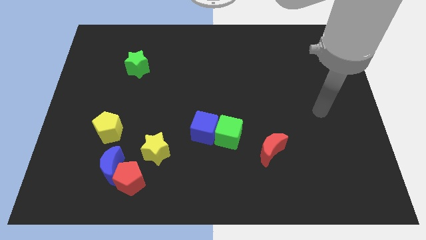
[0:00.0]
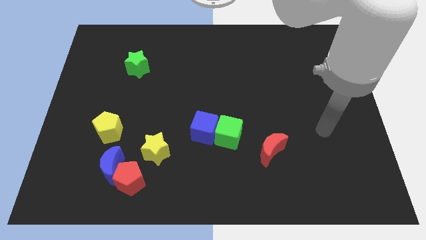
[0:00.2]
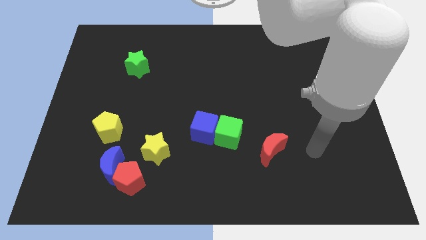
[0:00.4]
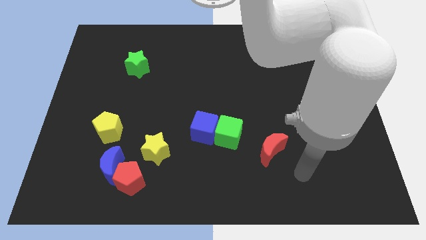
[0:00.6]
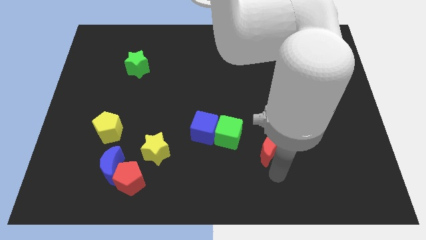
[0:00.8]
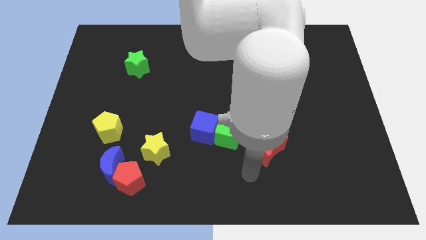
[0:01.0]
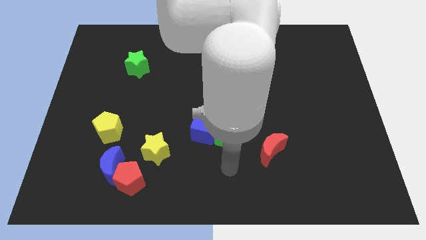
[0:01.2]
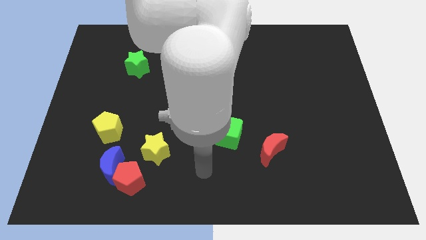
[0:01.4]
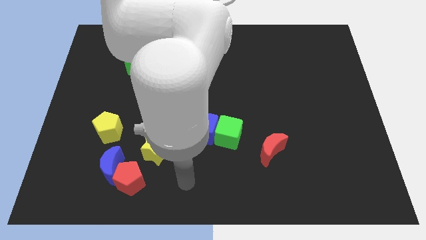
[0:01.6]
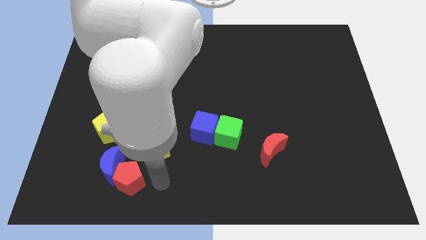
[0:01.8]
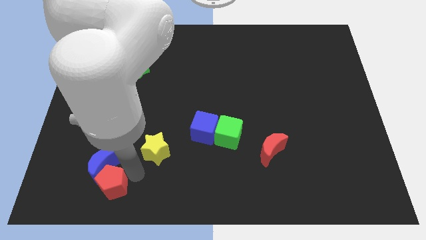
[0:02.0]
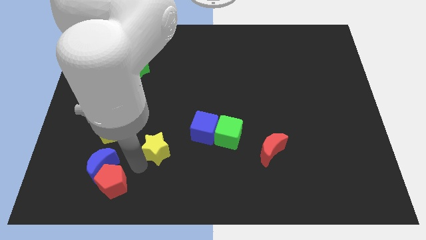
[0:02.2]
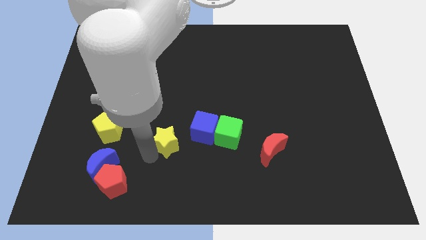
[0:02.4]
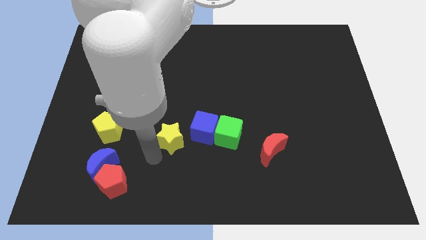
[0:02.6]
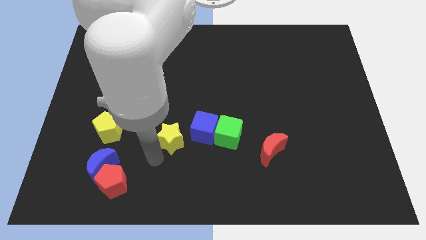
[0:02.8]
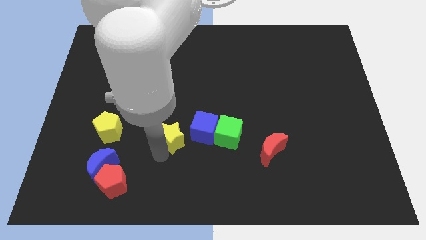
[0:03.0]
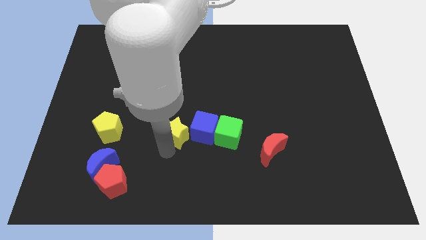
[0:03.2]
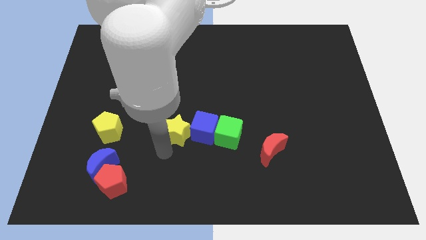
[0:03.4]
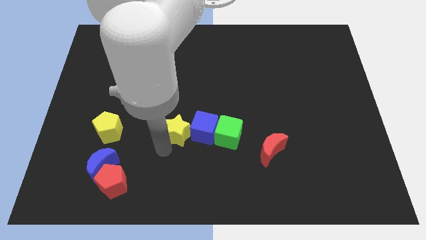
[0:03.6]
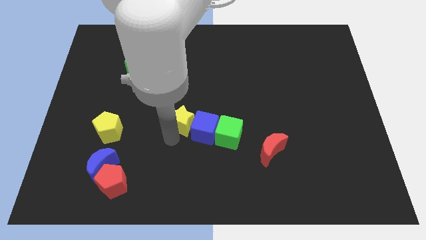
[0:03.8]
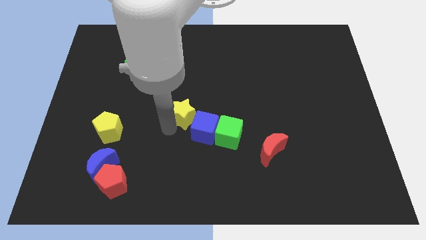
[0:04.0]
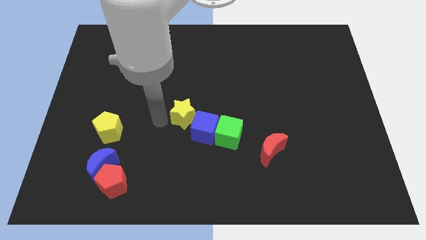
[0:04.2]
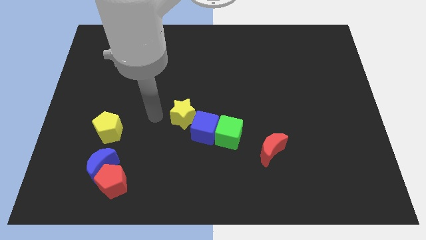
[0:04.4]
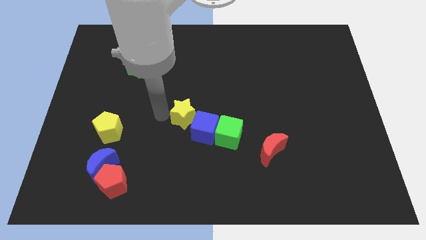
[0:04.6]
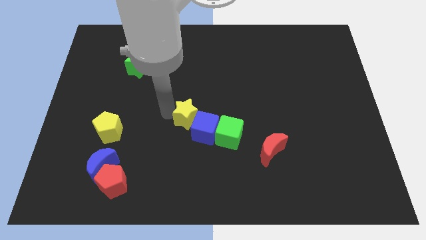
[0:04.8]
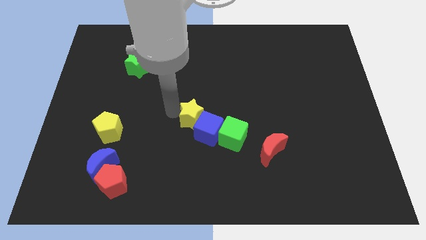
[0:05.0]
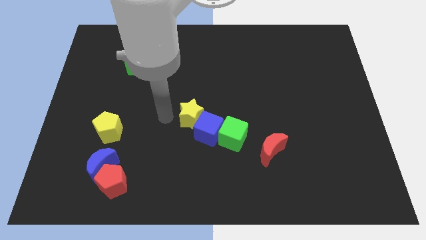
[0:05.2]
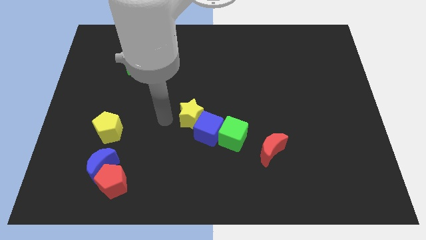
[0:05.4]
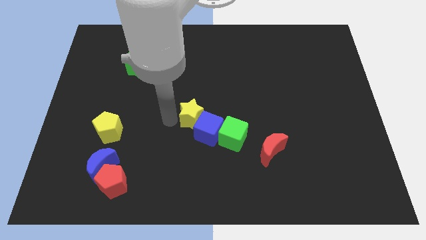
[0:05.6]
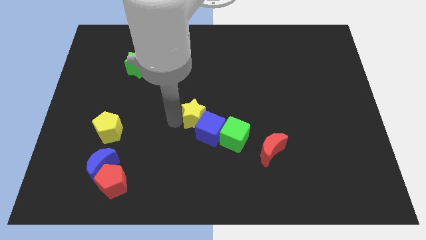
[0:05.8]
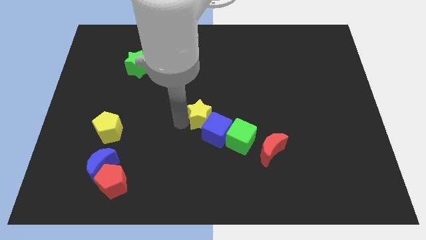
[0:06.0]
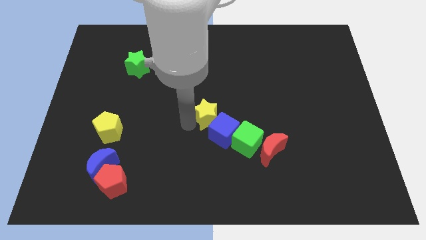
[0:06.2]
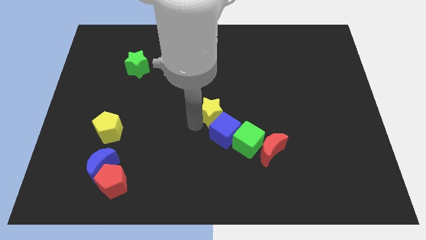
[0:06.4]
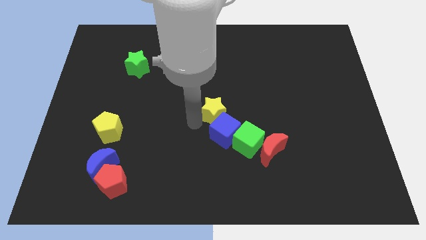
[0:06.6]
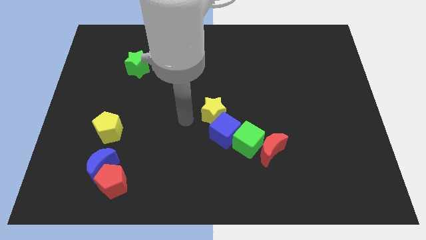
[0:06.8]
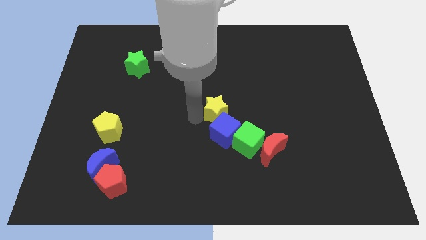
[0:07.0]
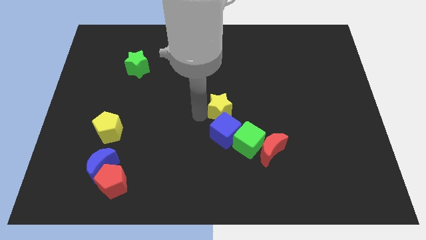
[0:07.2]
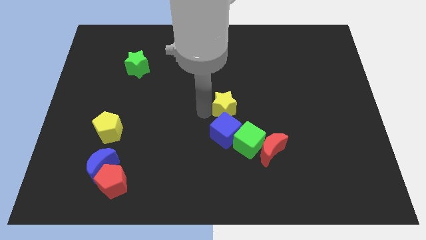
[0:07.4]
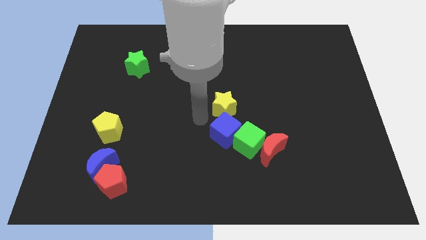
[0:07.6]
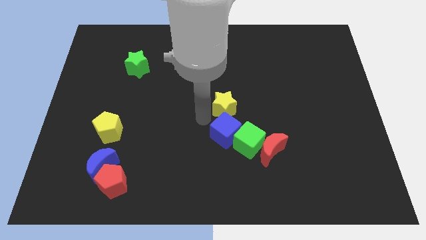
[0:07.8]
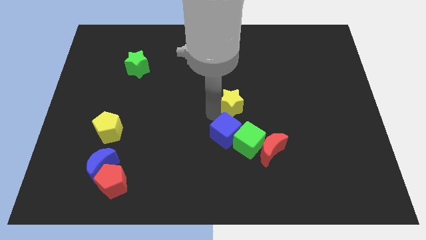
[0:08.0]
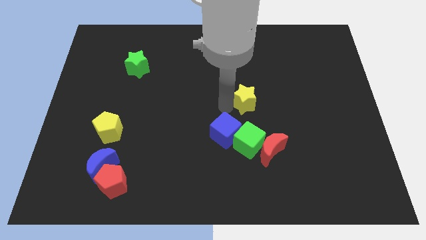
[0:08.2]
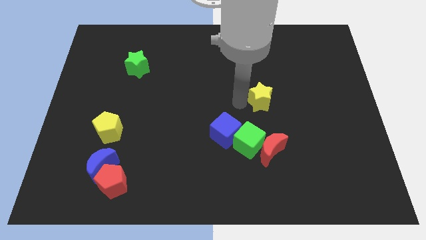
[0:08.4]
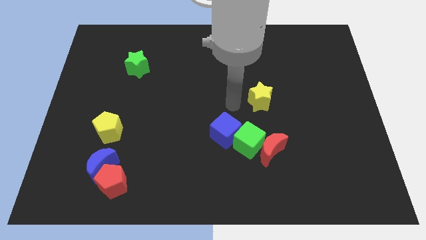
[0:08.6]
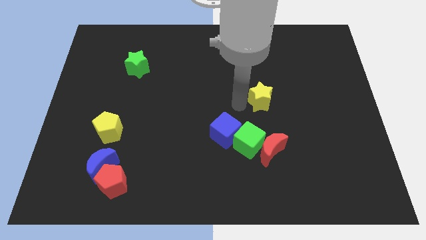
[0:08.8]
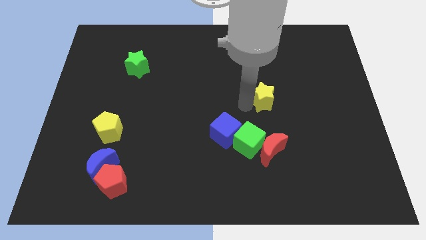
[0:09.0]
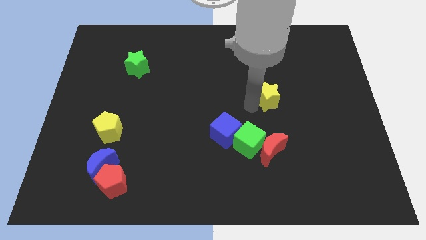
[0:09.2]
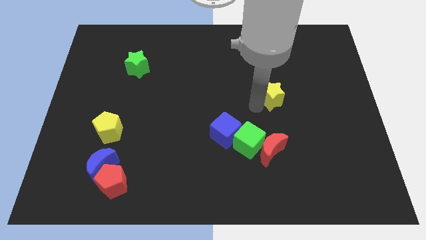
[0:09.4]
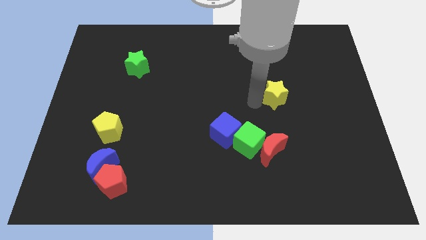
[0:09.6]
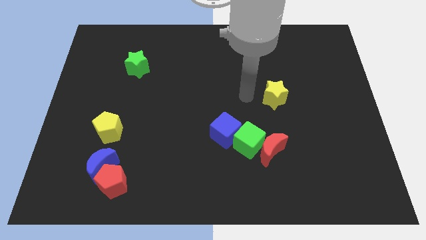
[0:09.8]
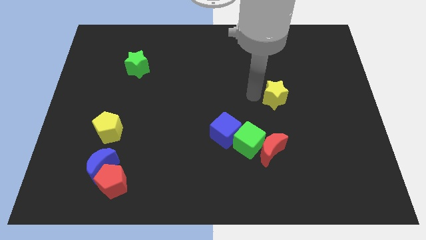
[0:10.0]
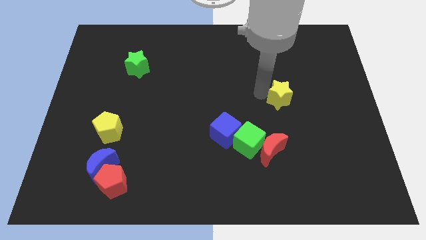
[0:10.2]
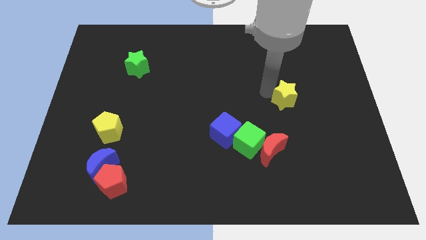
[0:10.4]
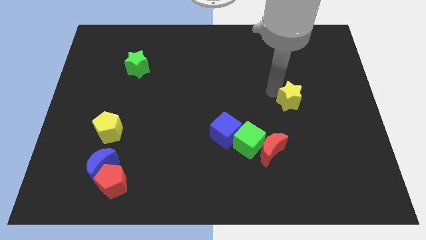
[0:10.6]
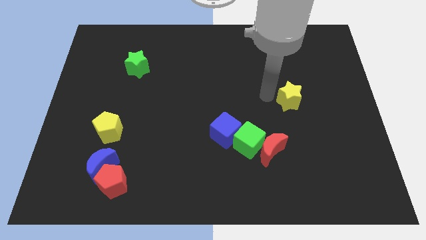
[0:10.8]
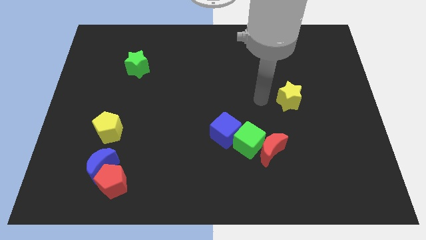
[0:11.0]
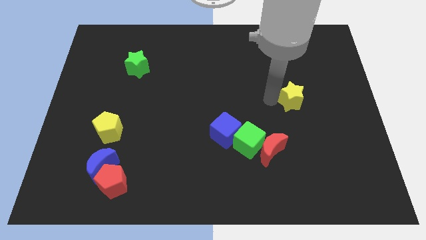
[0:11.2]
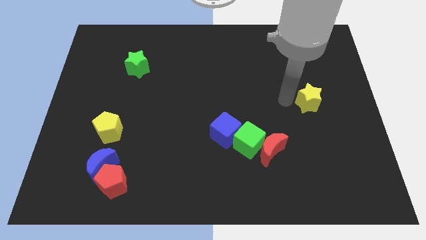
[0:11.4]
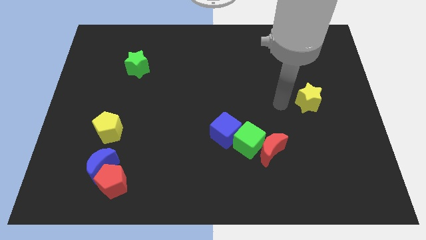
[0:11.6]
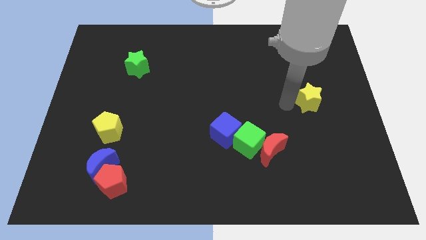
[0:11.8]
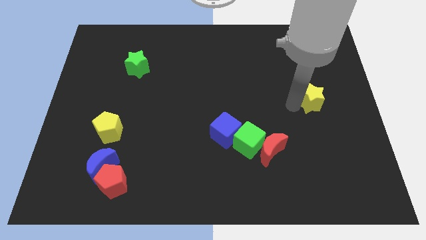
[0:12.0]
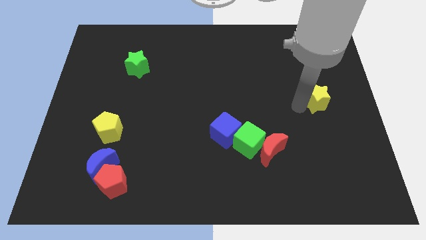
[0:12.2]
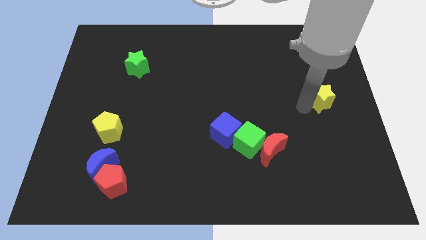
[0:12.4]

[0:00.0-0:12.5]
put the yellow star to the center right
